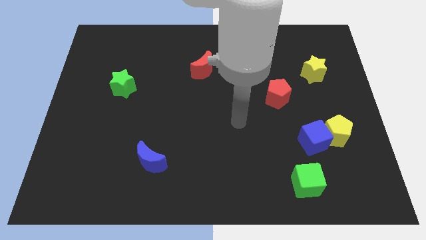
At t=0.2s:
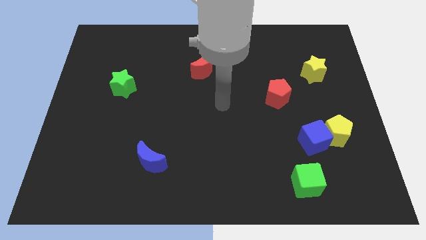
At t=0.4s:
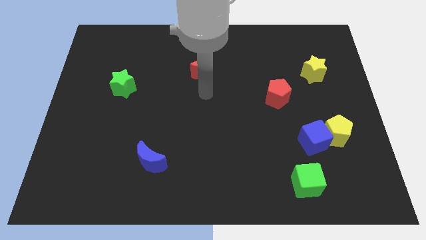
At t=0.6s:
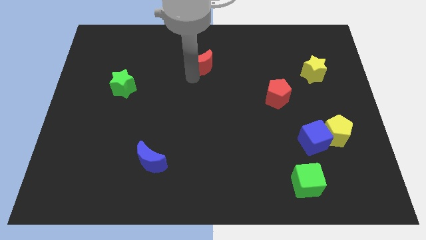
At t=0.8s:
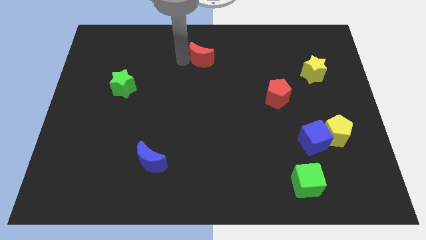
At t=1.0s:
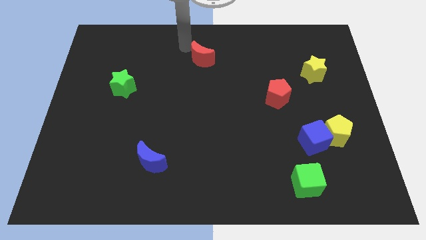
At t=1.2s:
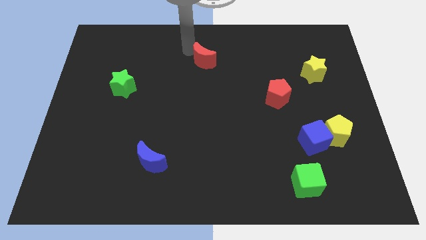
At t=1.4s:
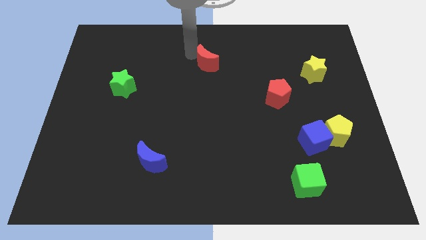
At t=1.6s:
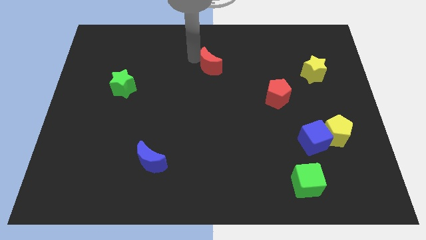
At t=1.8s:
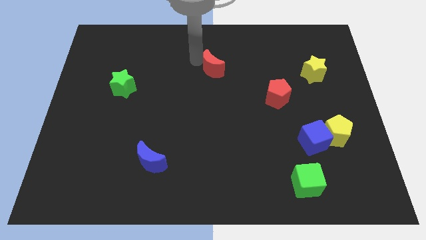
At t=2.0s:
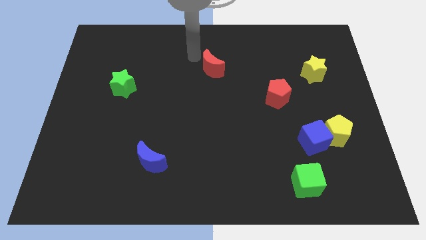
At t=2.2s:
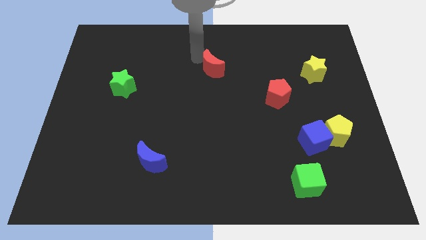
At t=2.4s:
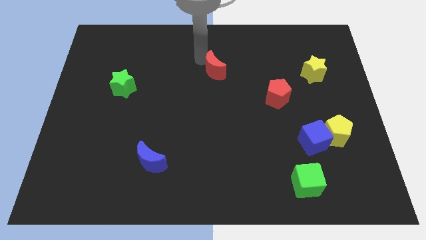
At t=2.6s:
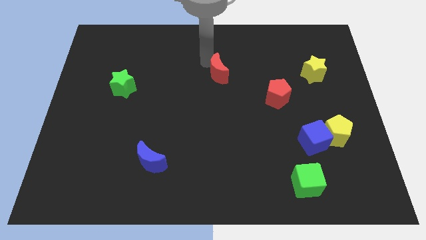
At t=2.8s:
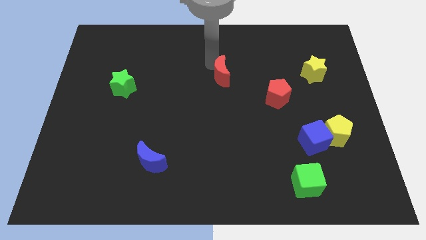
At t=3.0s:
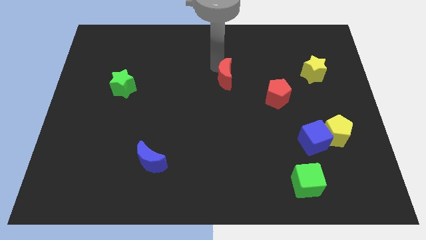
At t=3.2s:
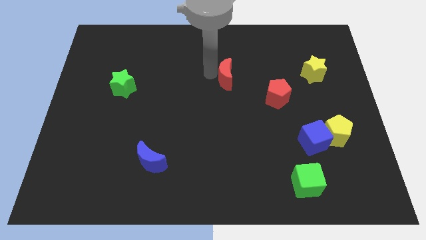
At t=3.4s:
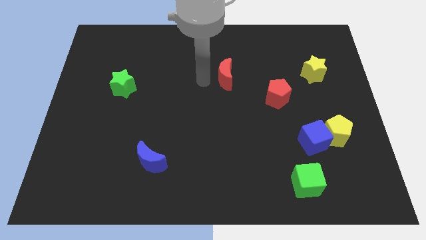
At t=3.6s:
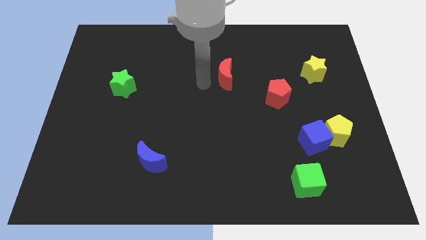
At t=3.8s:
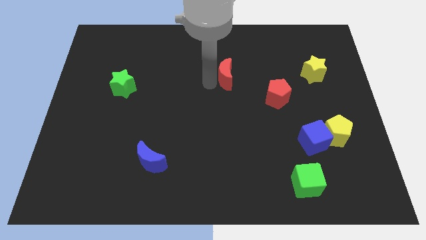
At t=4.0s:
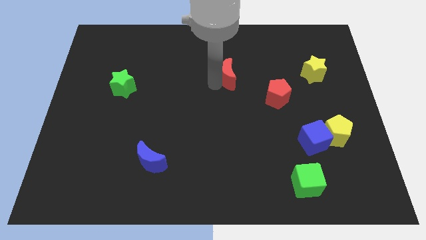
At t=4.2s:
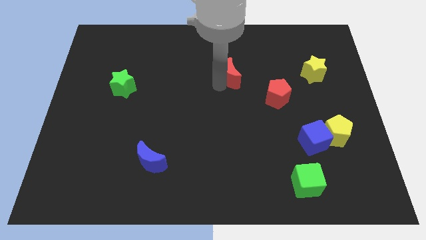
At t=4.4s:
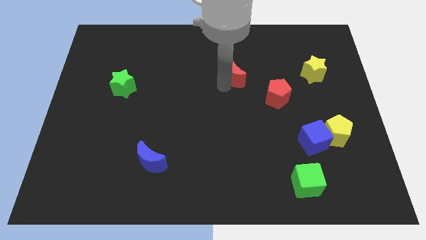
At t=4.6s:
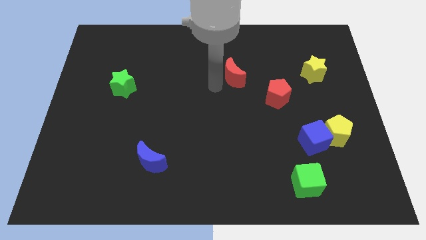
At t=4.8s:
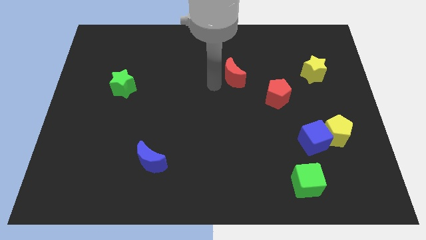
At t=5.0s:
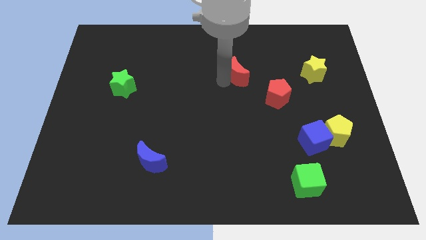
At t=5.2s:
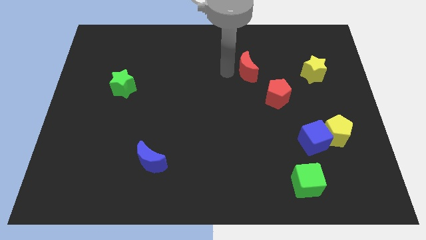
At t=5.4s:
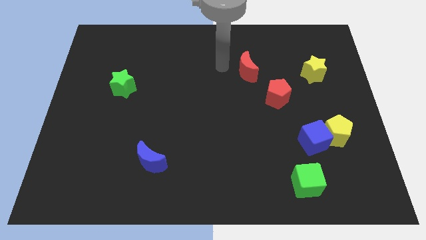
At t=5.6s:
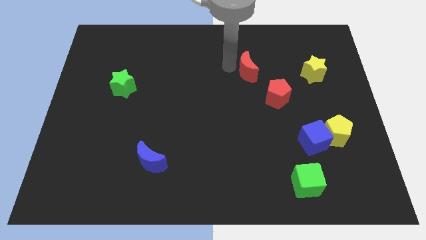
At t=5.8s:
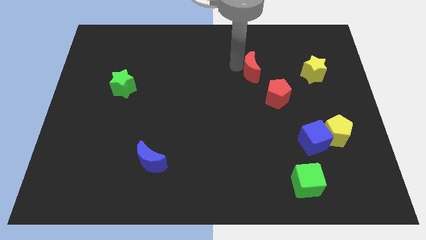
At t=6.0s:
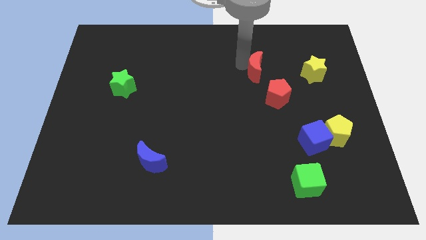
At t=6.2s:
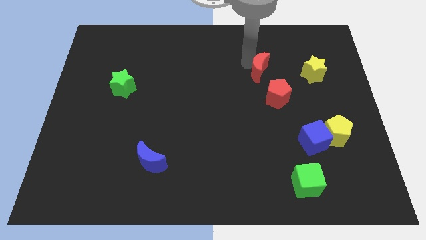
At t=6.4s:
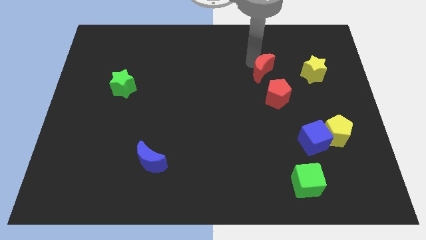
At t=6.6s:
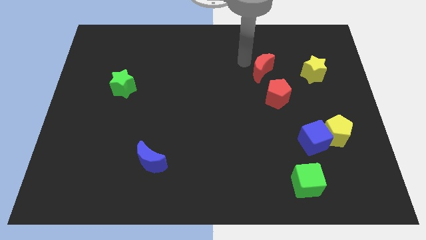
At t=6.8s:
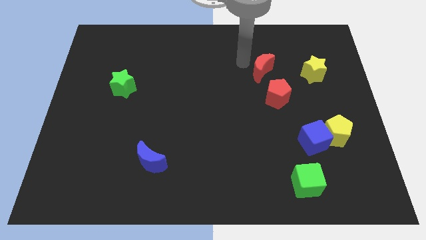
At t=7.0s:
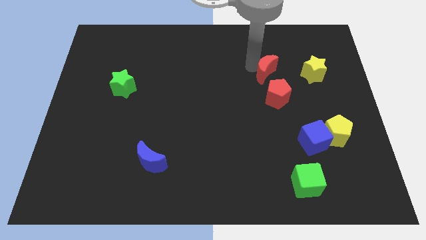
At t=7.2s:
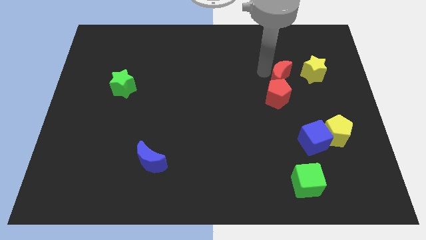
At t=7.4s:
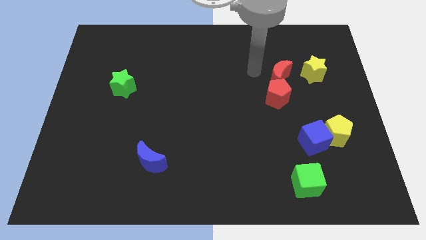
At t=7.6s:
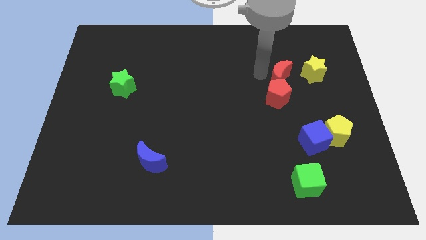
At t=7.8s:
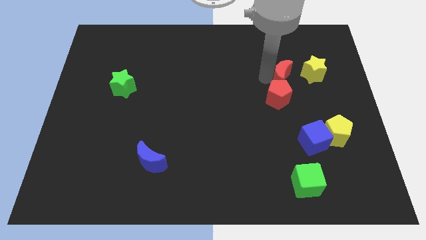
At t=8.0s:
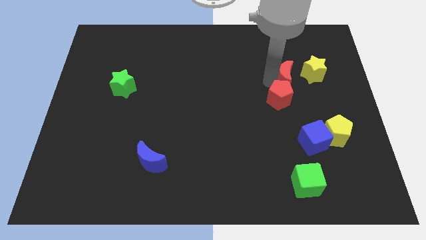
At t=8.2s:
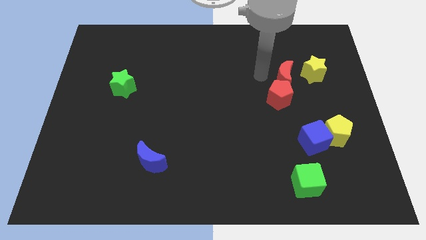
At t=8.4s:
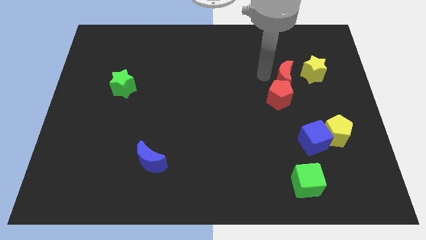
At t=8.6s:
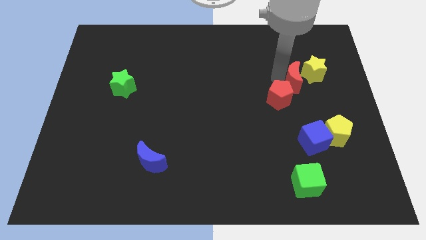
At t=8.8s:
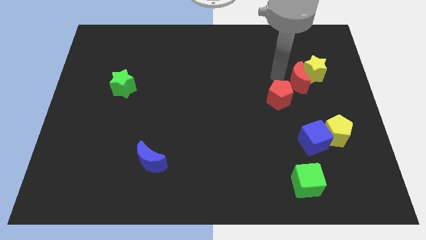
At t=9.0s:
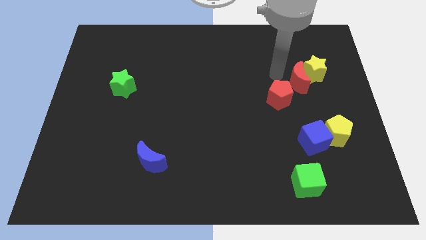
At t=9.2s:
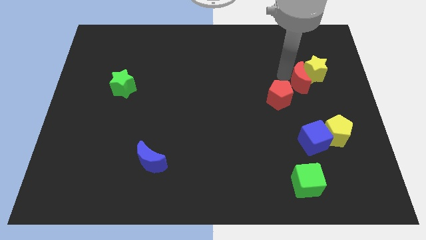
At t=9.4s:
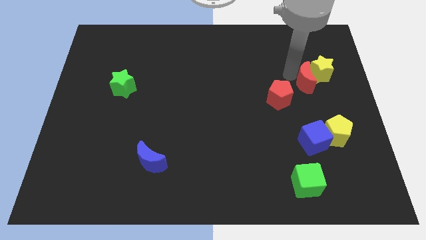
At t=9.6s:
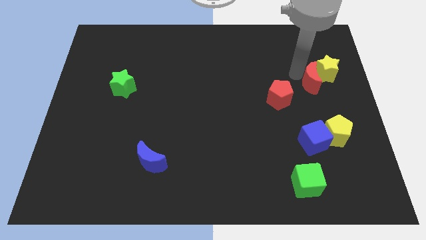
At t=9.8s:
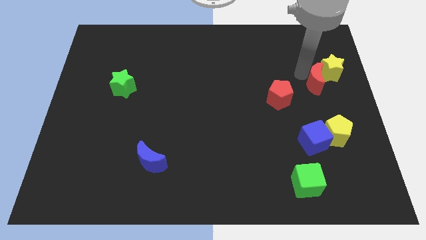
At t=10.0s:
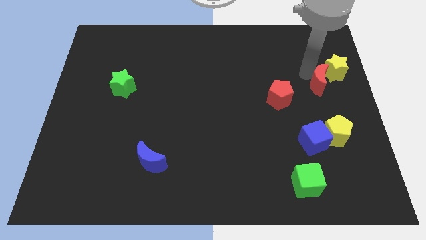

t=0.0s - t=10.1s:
slide the red moon to the center right

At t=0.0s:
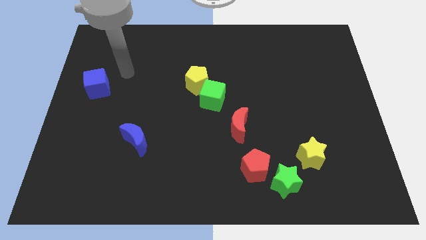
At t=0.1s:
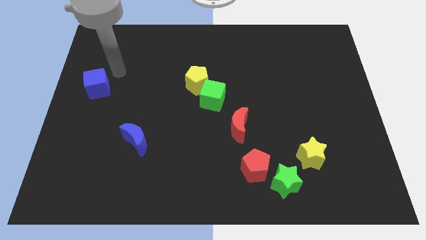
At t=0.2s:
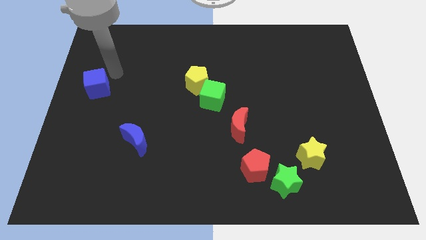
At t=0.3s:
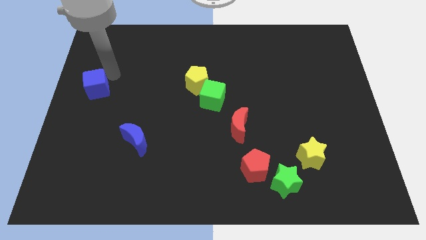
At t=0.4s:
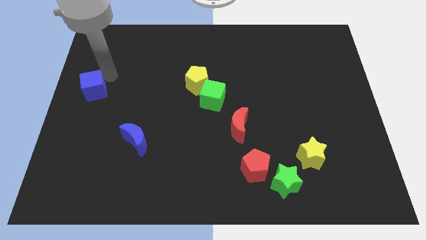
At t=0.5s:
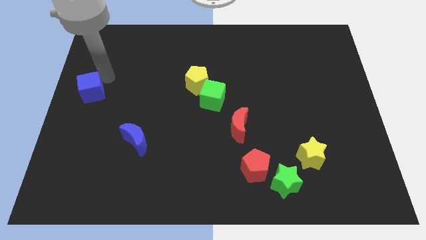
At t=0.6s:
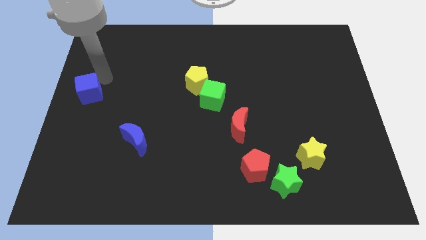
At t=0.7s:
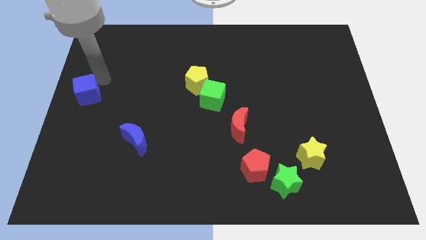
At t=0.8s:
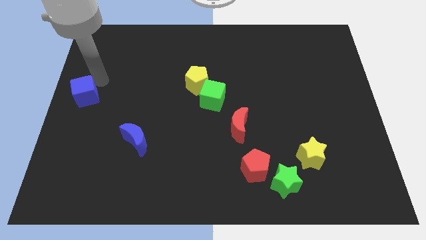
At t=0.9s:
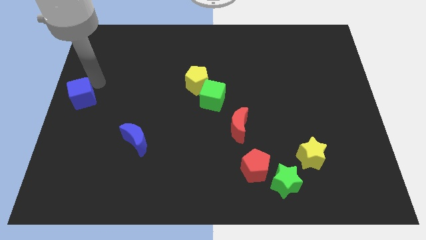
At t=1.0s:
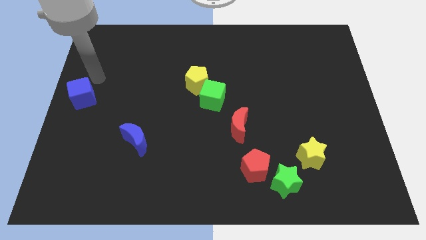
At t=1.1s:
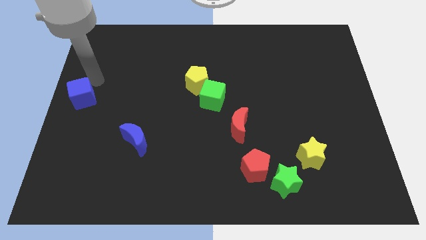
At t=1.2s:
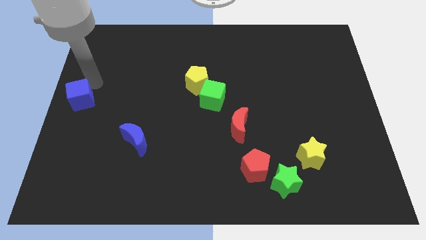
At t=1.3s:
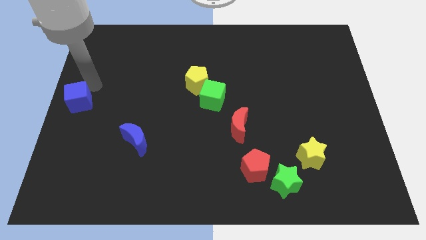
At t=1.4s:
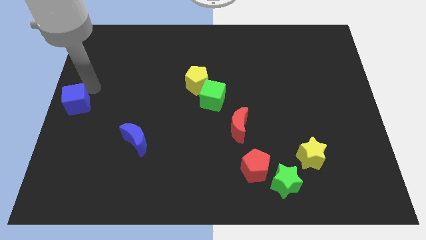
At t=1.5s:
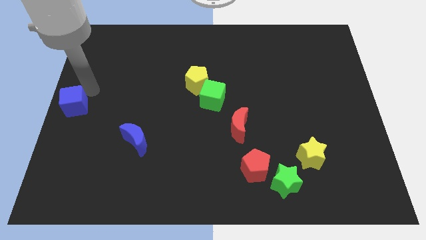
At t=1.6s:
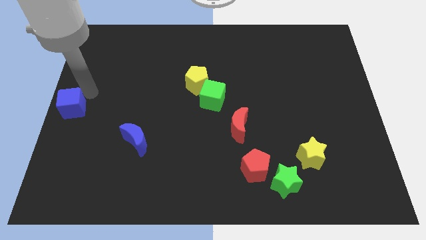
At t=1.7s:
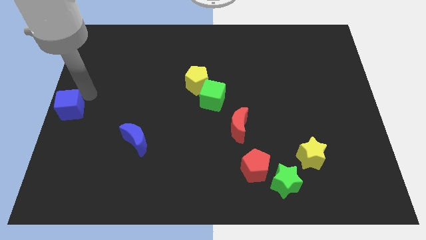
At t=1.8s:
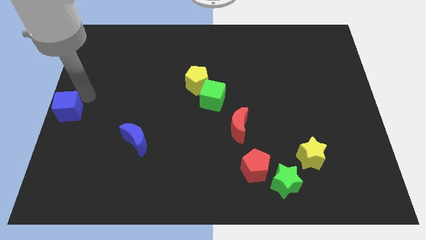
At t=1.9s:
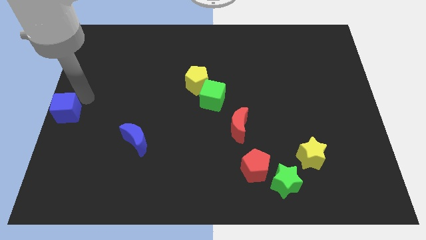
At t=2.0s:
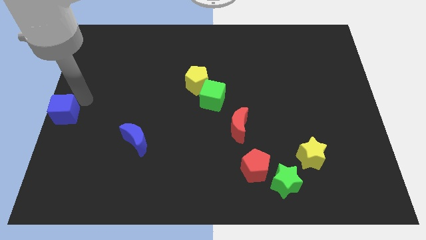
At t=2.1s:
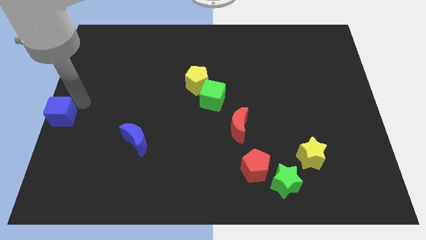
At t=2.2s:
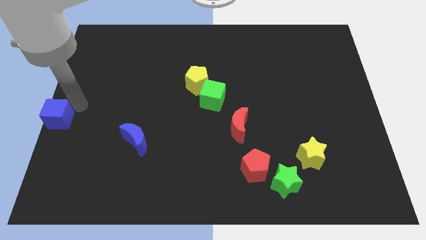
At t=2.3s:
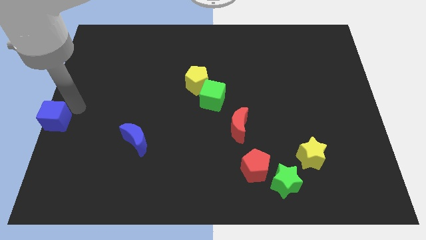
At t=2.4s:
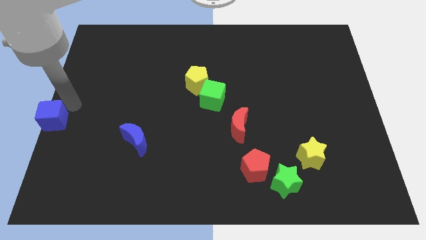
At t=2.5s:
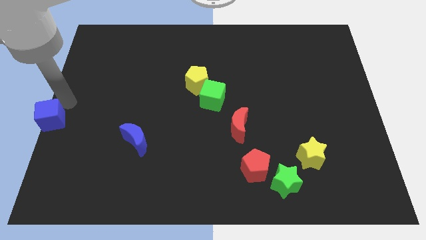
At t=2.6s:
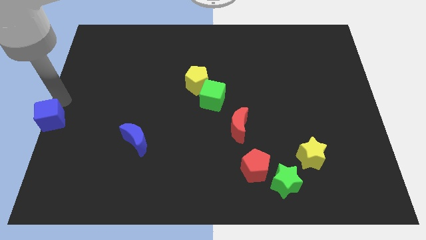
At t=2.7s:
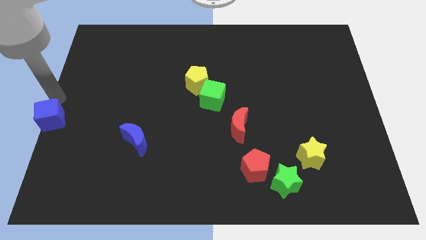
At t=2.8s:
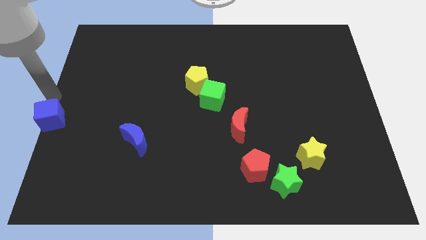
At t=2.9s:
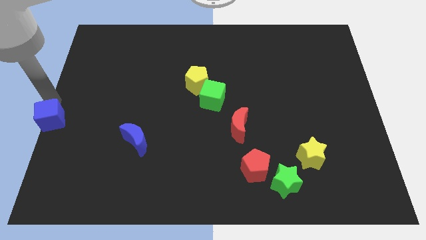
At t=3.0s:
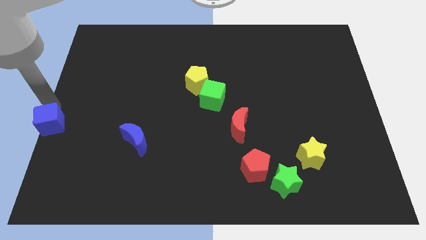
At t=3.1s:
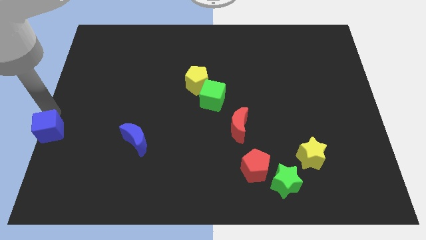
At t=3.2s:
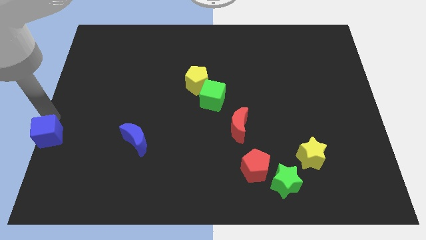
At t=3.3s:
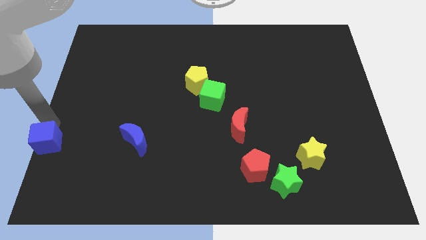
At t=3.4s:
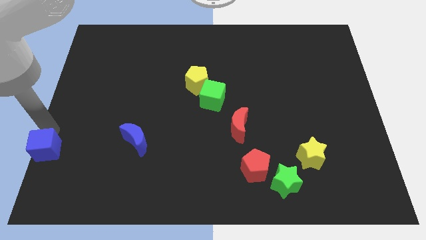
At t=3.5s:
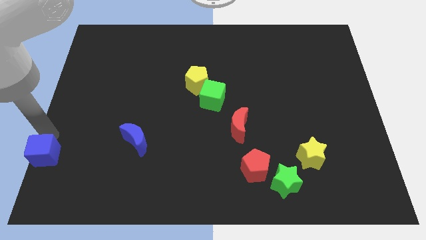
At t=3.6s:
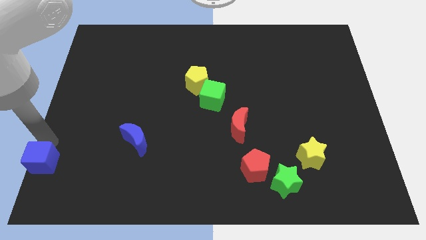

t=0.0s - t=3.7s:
put the blue cube to the bottom left corner
